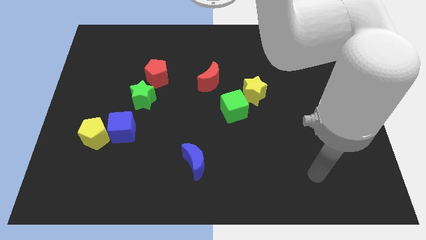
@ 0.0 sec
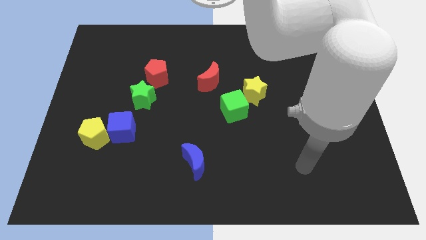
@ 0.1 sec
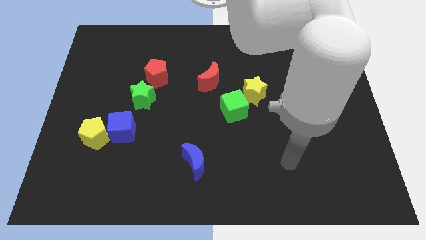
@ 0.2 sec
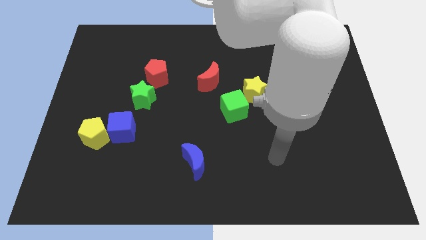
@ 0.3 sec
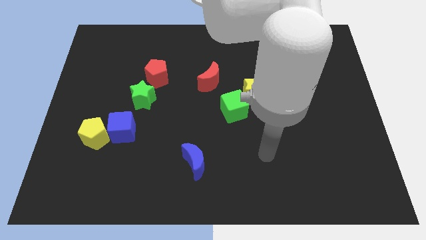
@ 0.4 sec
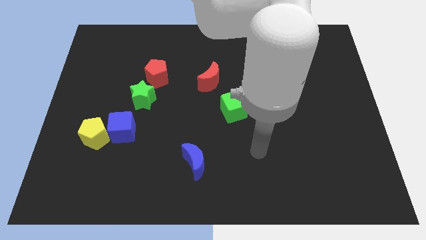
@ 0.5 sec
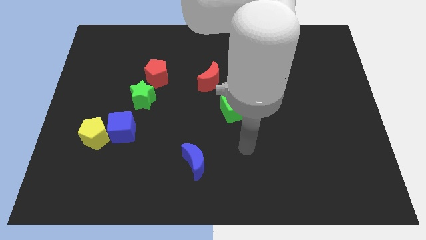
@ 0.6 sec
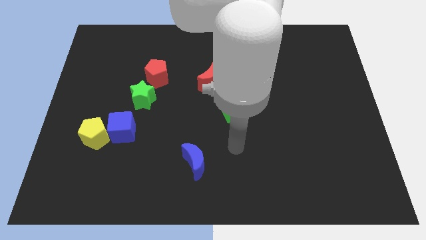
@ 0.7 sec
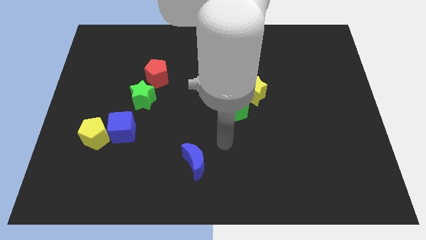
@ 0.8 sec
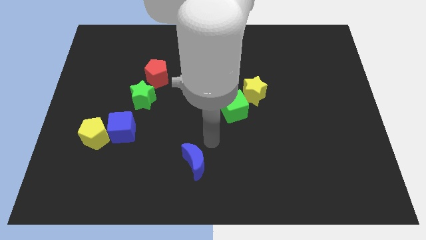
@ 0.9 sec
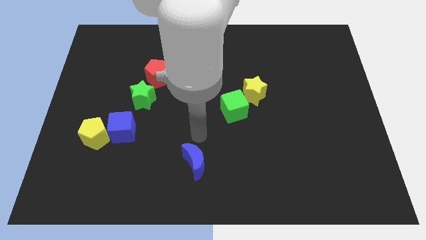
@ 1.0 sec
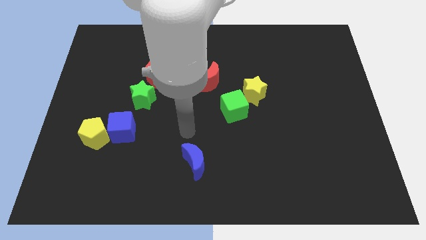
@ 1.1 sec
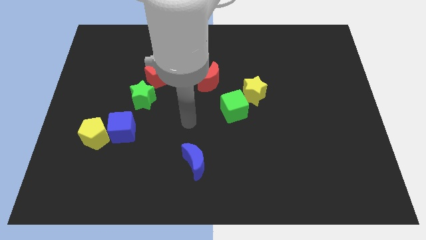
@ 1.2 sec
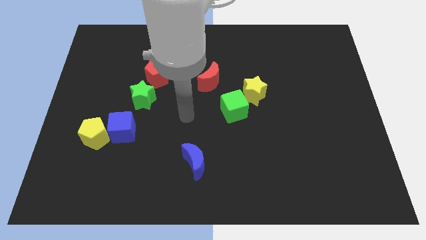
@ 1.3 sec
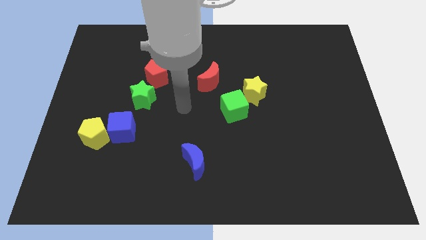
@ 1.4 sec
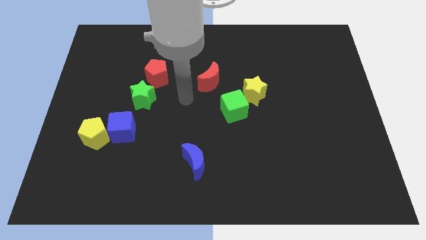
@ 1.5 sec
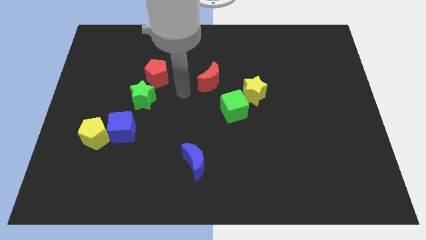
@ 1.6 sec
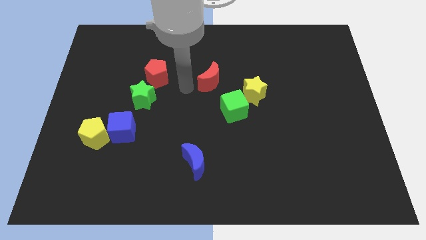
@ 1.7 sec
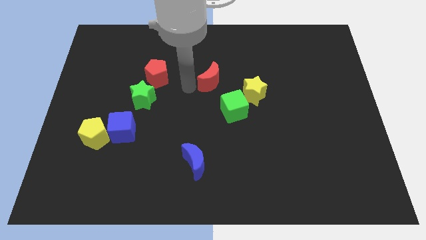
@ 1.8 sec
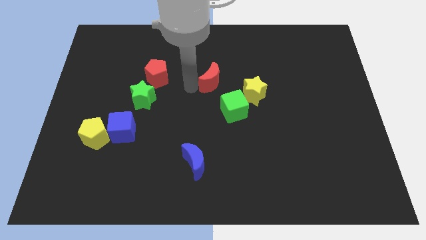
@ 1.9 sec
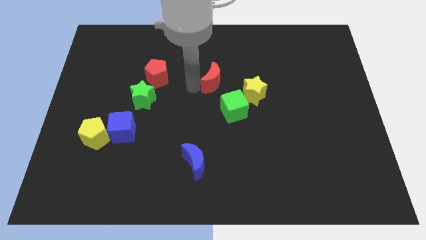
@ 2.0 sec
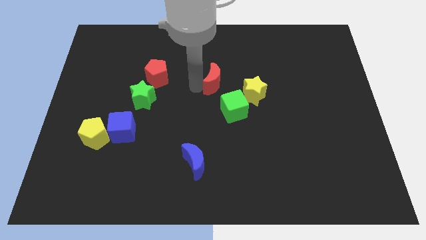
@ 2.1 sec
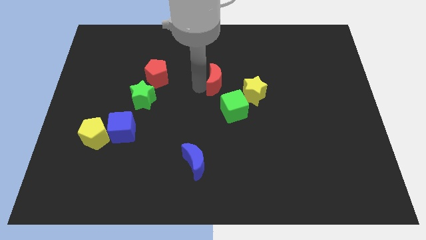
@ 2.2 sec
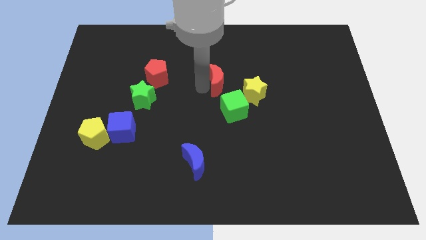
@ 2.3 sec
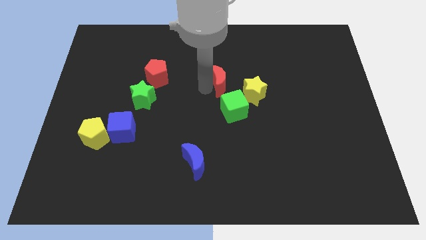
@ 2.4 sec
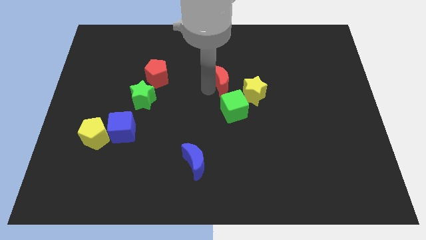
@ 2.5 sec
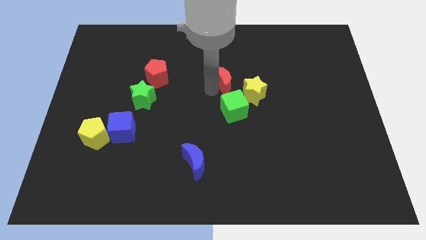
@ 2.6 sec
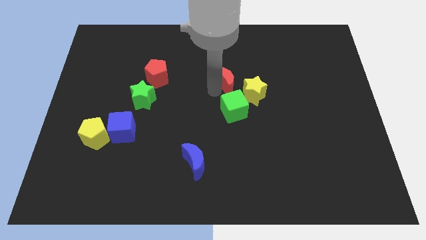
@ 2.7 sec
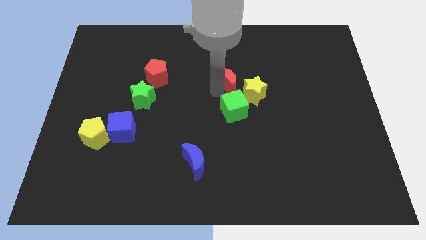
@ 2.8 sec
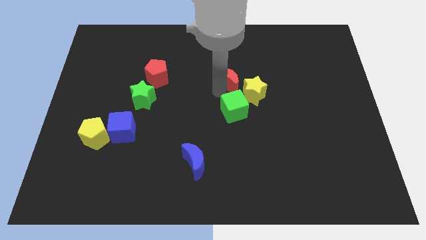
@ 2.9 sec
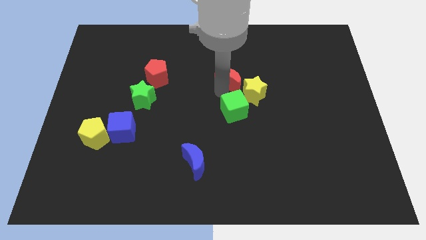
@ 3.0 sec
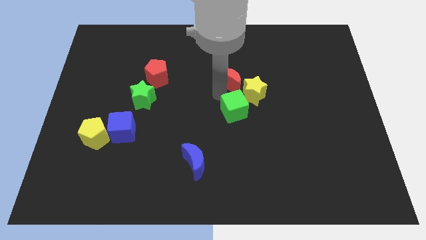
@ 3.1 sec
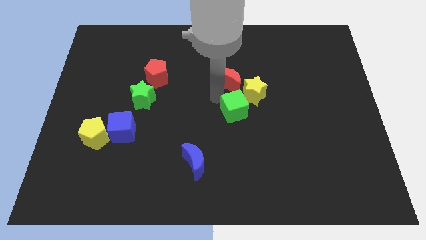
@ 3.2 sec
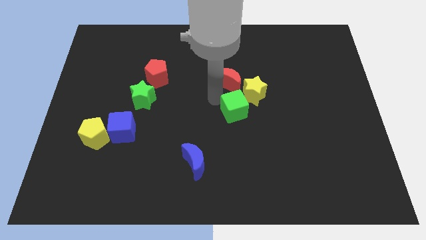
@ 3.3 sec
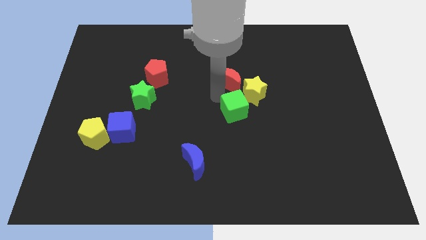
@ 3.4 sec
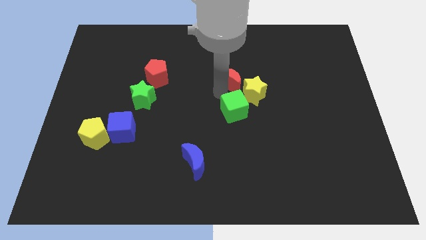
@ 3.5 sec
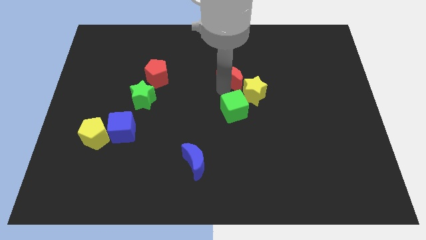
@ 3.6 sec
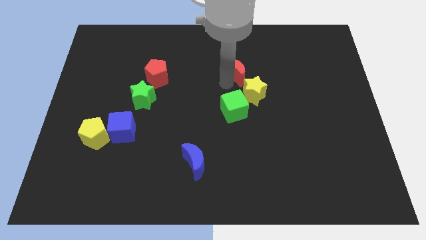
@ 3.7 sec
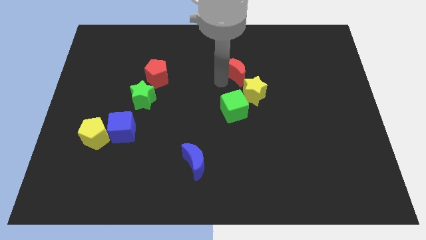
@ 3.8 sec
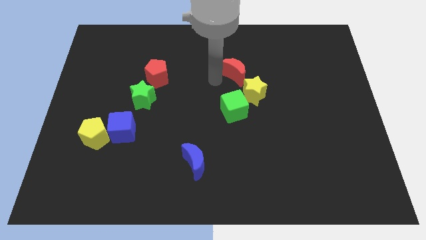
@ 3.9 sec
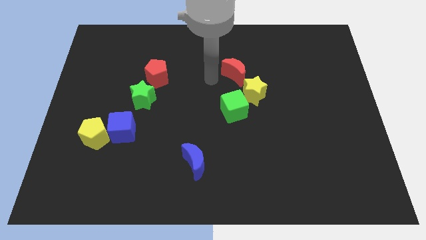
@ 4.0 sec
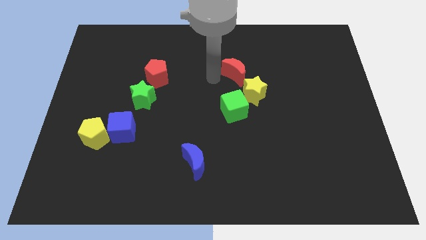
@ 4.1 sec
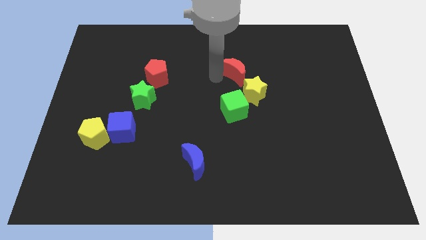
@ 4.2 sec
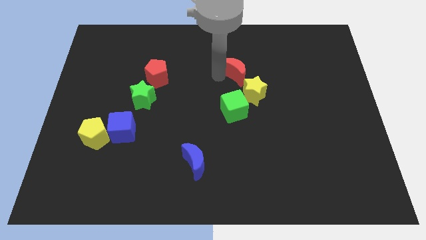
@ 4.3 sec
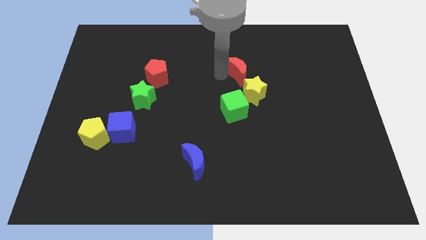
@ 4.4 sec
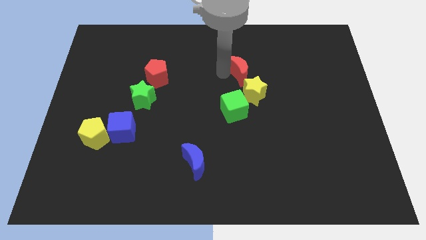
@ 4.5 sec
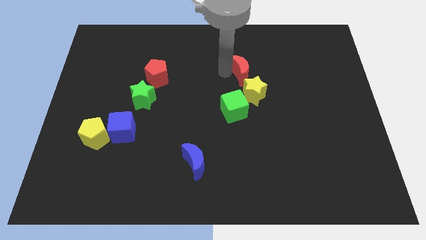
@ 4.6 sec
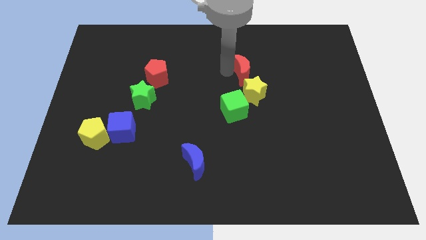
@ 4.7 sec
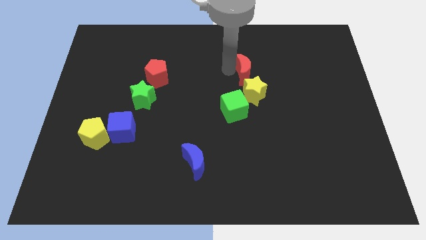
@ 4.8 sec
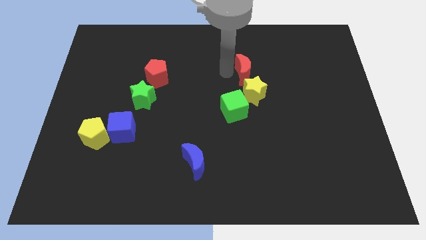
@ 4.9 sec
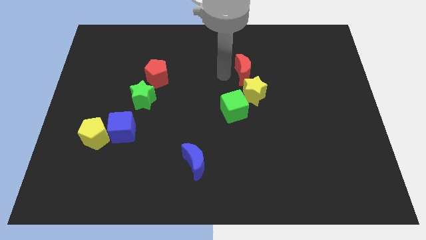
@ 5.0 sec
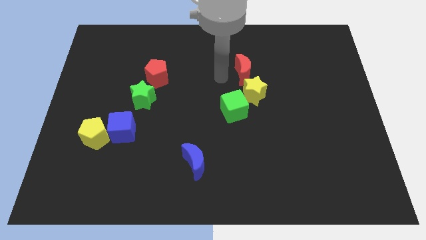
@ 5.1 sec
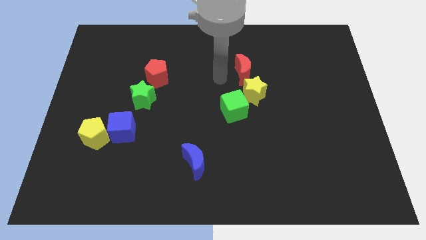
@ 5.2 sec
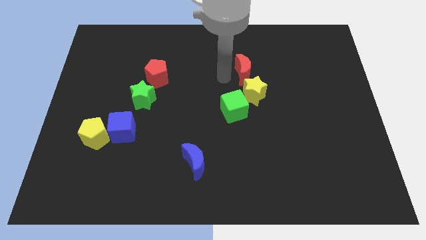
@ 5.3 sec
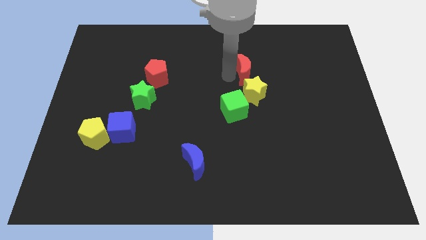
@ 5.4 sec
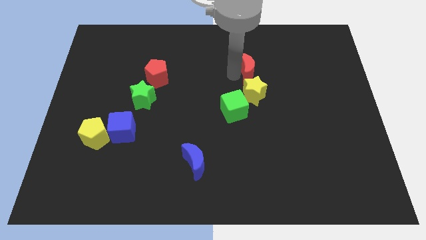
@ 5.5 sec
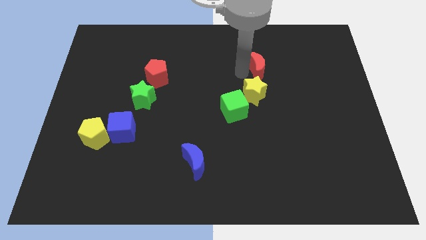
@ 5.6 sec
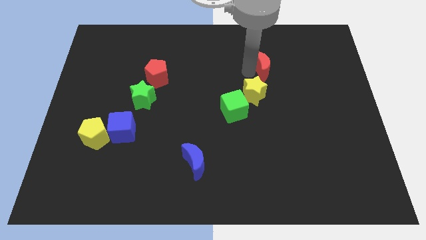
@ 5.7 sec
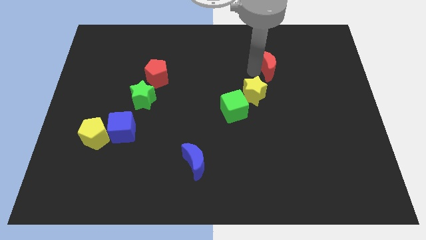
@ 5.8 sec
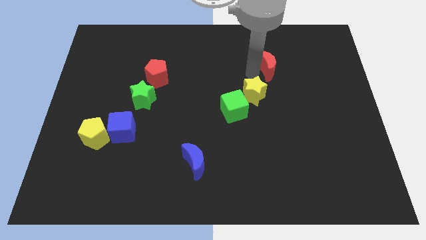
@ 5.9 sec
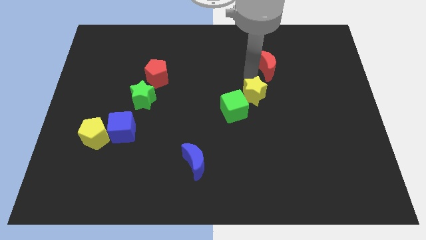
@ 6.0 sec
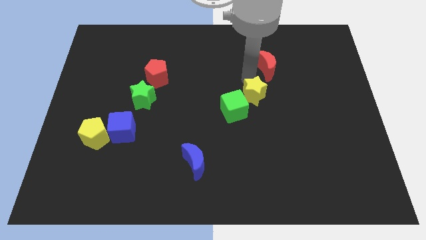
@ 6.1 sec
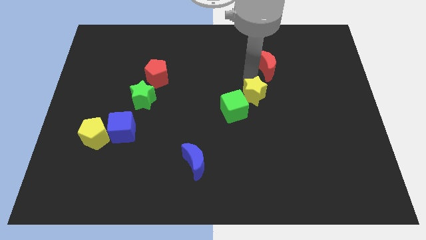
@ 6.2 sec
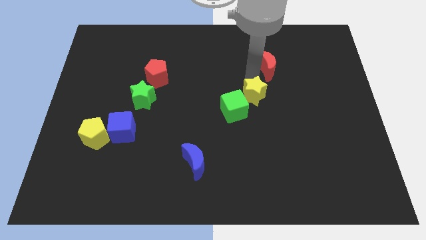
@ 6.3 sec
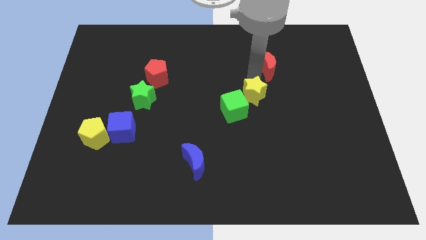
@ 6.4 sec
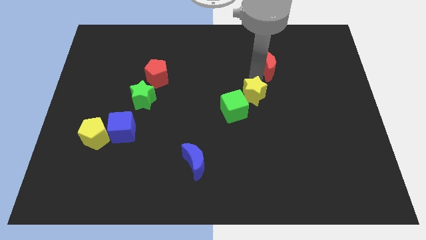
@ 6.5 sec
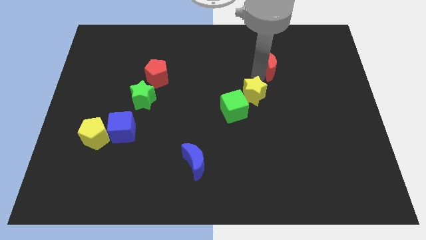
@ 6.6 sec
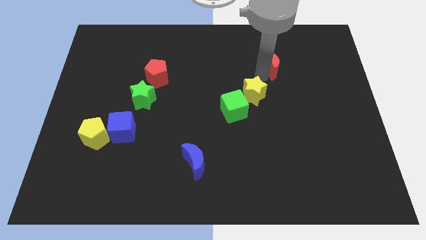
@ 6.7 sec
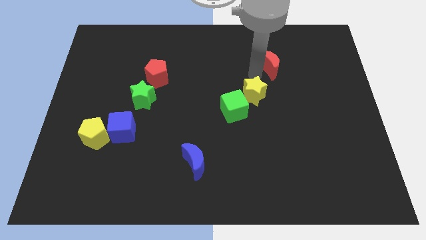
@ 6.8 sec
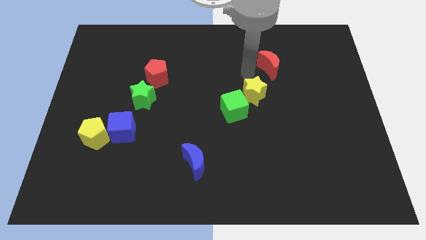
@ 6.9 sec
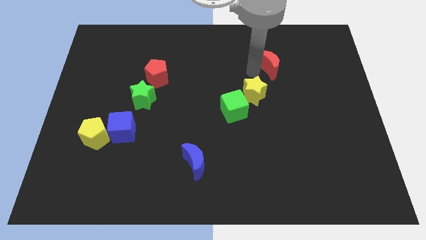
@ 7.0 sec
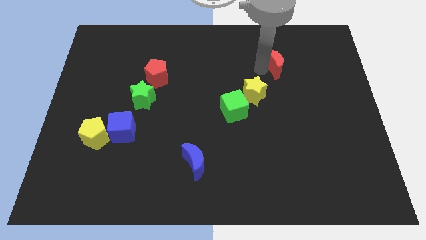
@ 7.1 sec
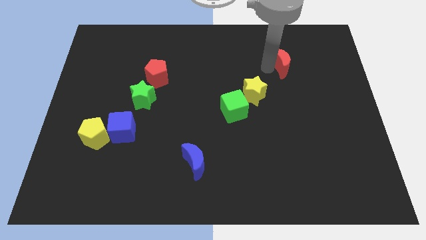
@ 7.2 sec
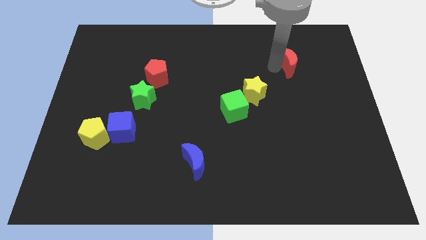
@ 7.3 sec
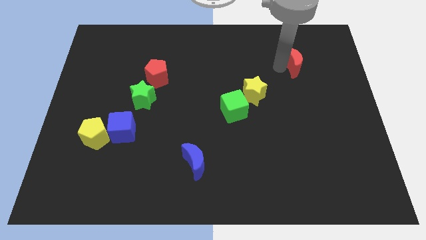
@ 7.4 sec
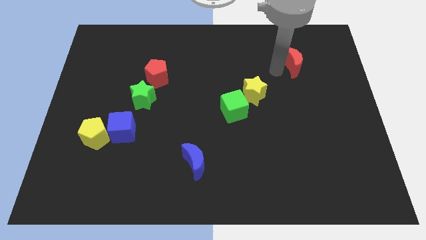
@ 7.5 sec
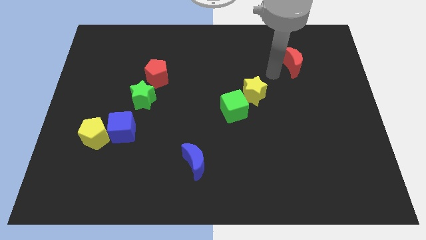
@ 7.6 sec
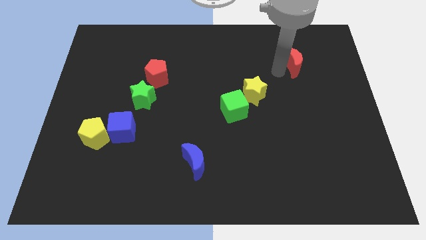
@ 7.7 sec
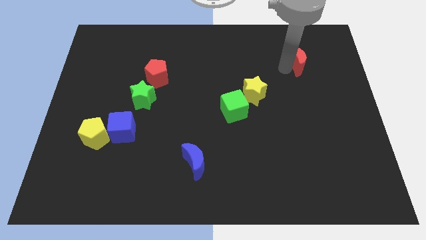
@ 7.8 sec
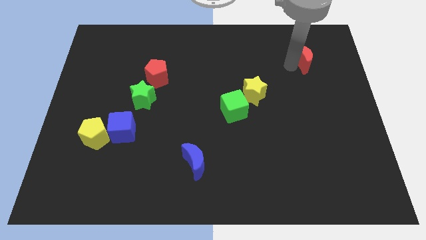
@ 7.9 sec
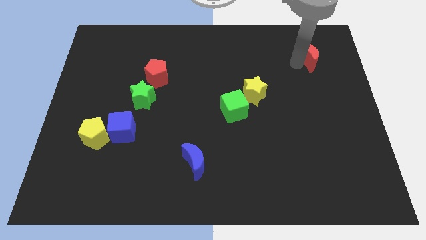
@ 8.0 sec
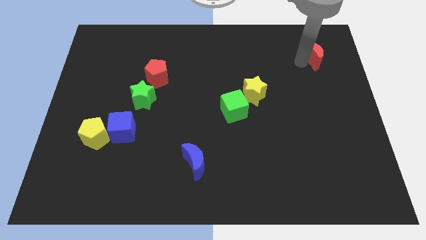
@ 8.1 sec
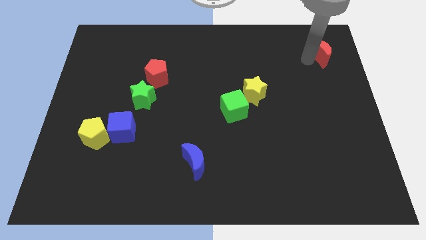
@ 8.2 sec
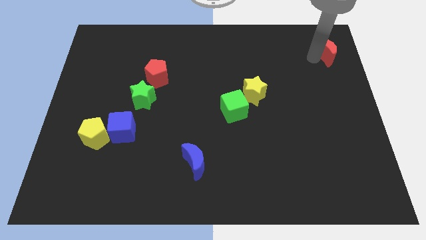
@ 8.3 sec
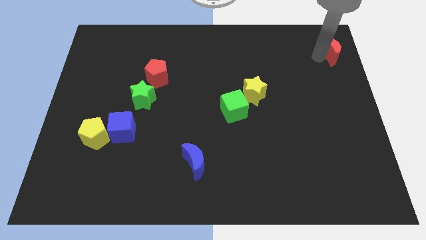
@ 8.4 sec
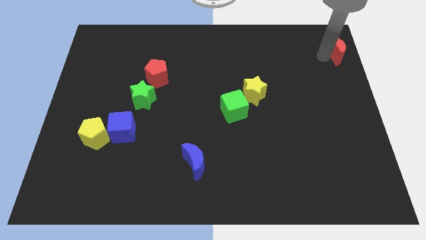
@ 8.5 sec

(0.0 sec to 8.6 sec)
push the red moon to the top right corner
